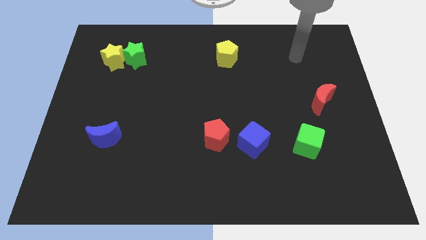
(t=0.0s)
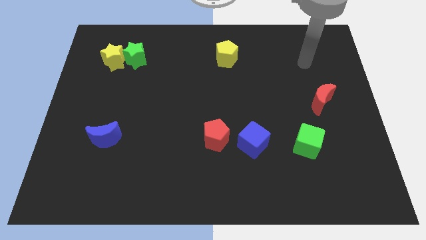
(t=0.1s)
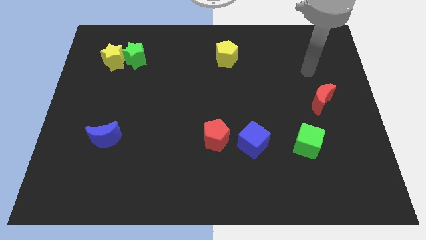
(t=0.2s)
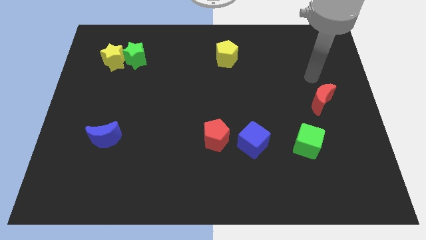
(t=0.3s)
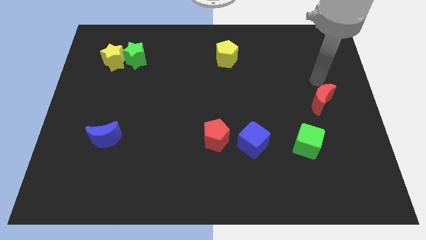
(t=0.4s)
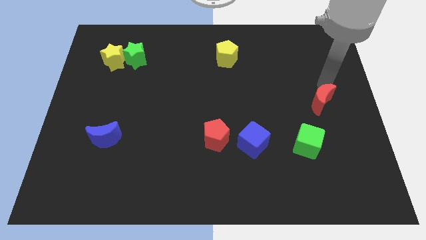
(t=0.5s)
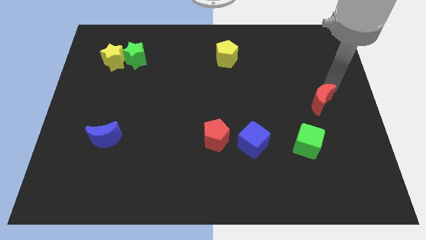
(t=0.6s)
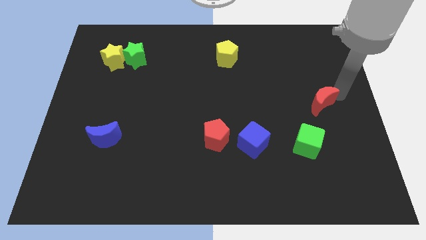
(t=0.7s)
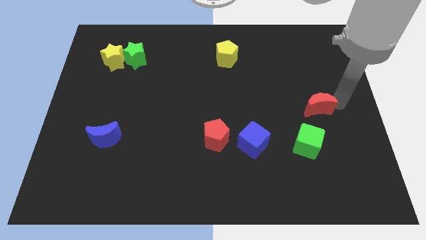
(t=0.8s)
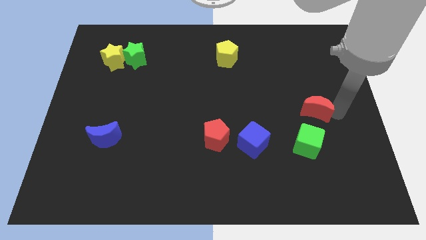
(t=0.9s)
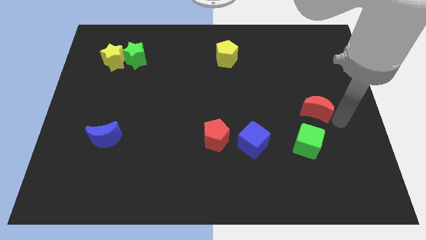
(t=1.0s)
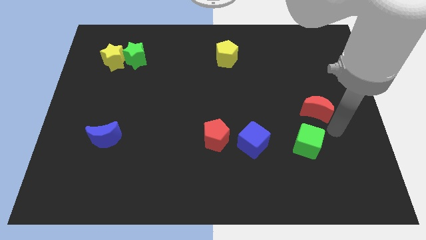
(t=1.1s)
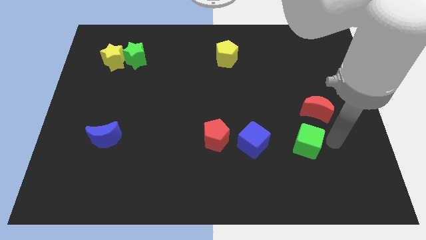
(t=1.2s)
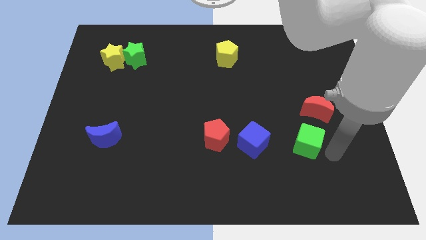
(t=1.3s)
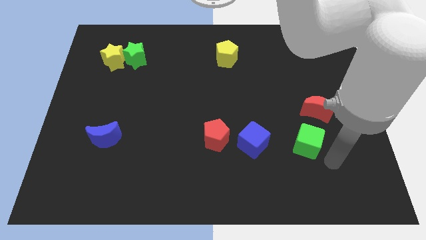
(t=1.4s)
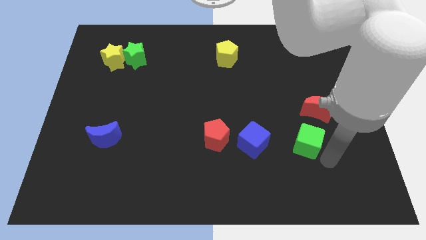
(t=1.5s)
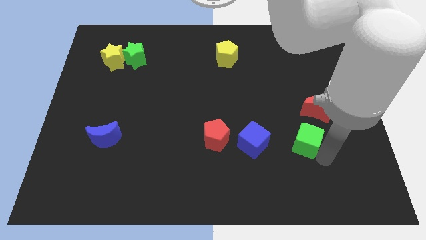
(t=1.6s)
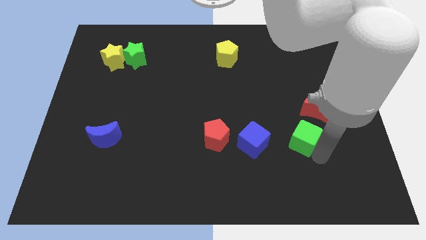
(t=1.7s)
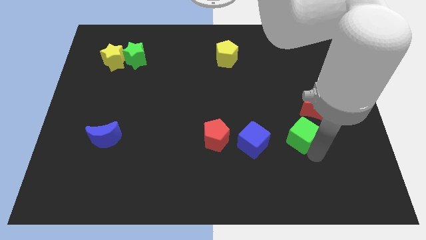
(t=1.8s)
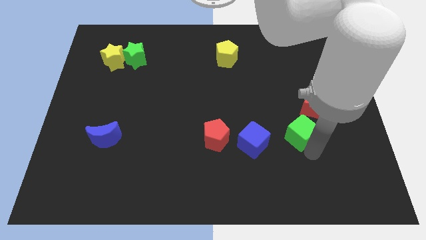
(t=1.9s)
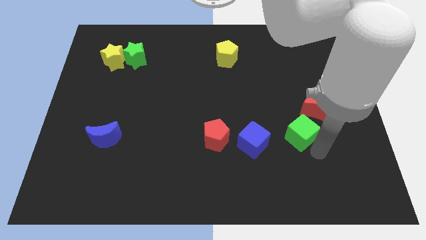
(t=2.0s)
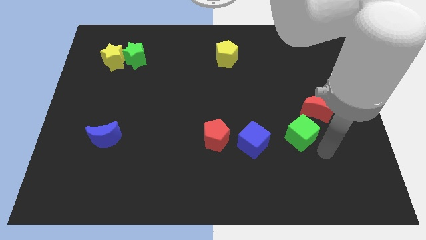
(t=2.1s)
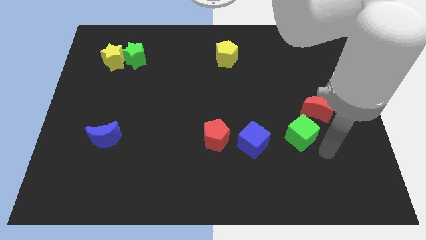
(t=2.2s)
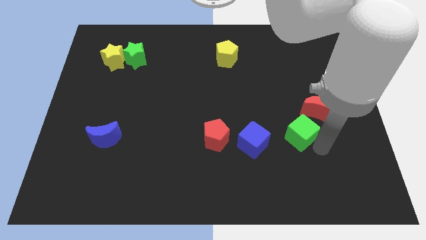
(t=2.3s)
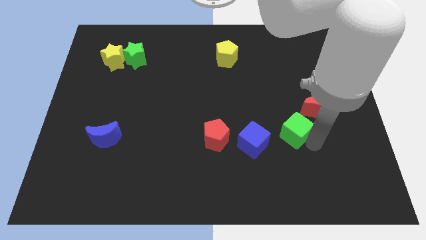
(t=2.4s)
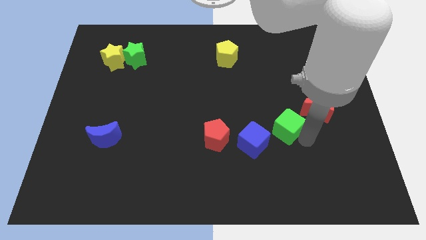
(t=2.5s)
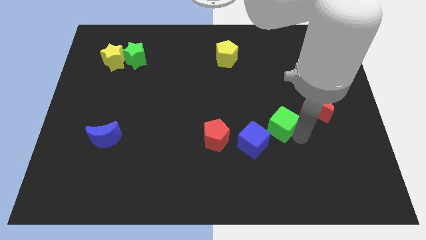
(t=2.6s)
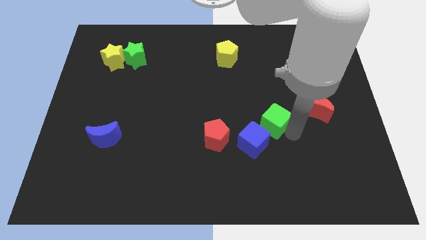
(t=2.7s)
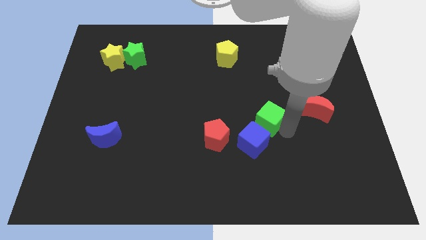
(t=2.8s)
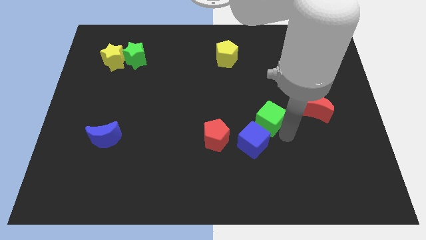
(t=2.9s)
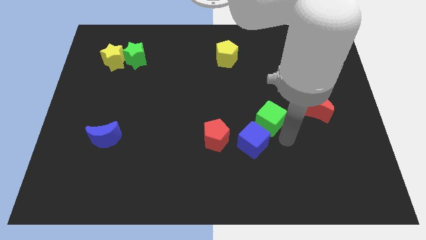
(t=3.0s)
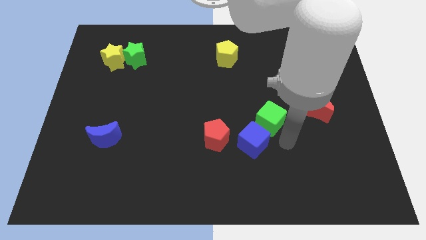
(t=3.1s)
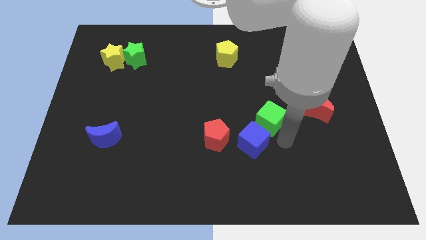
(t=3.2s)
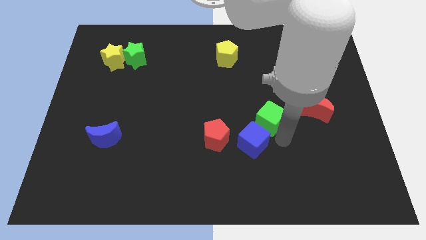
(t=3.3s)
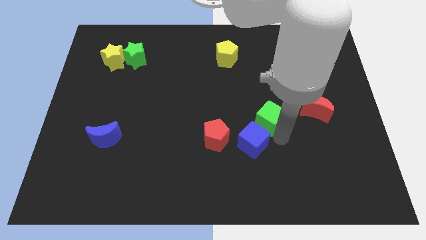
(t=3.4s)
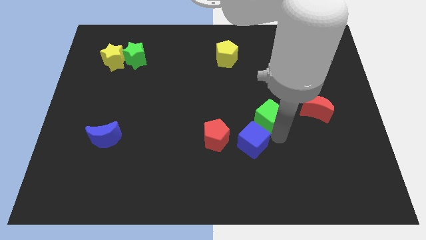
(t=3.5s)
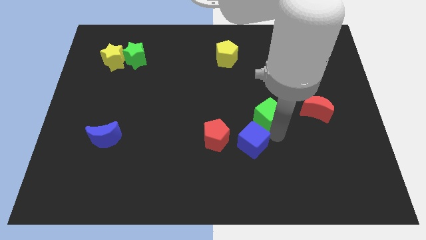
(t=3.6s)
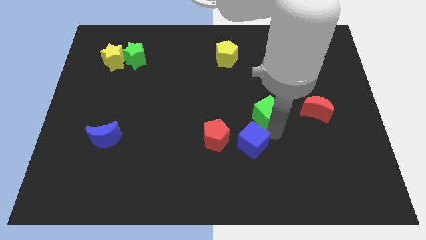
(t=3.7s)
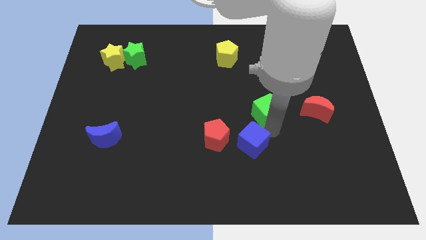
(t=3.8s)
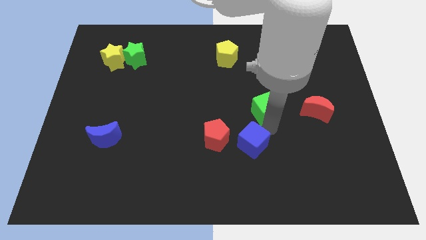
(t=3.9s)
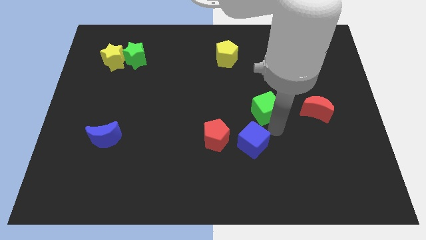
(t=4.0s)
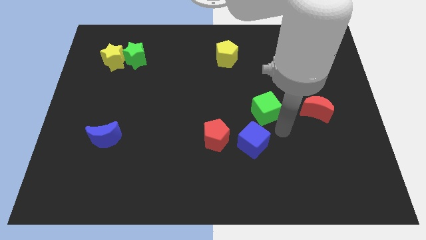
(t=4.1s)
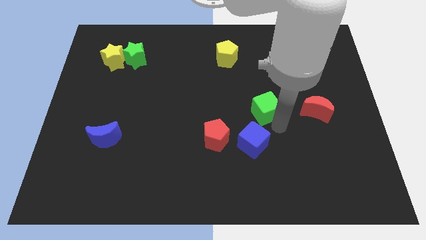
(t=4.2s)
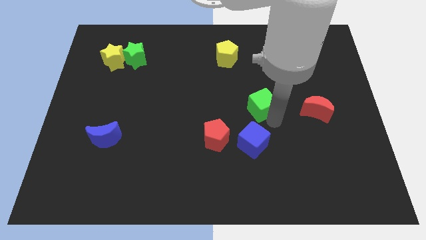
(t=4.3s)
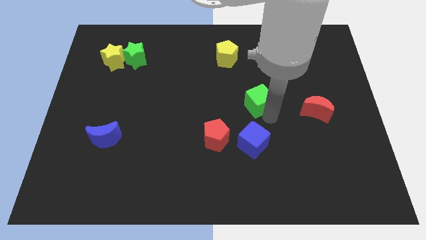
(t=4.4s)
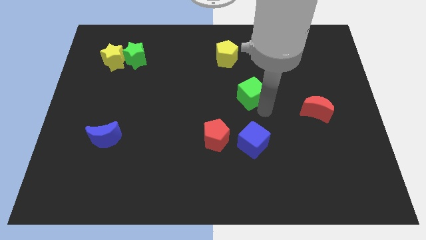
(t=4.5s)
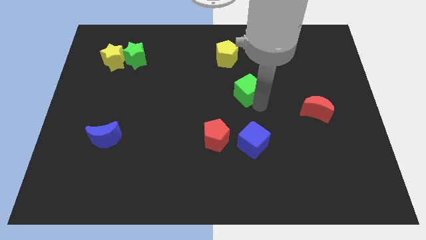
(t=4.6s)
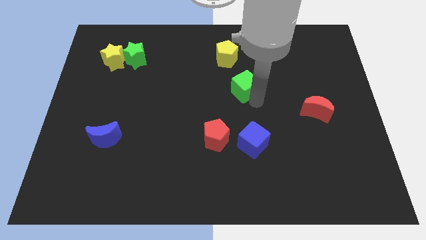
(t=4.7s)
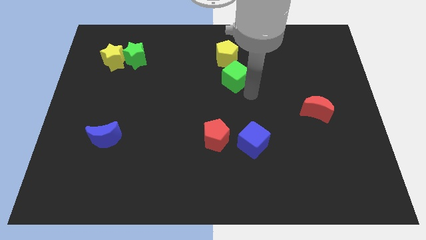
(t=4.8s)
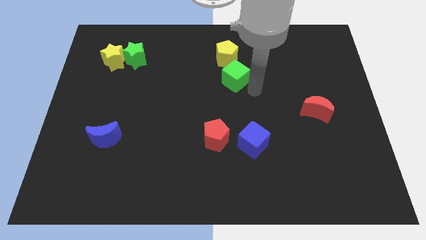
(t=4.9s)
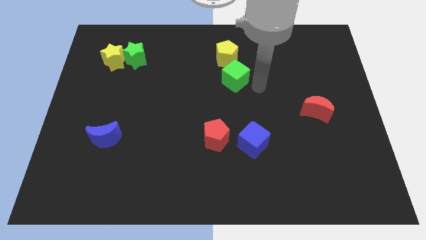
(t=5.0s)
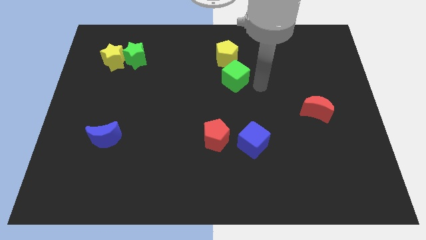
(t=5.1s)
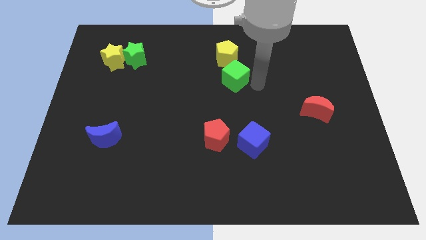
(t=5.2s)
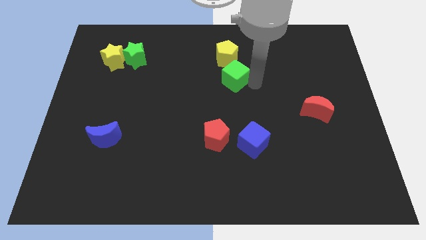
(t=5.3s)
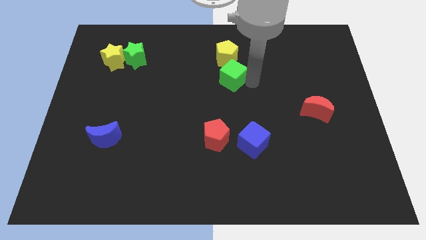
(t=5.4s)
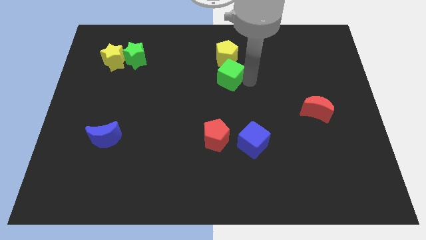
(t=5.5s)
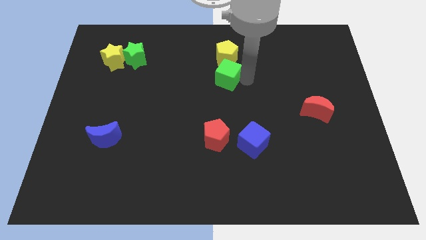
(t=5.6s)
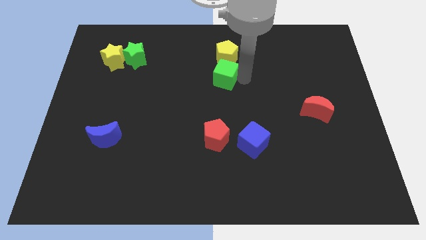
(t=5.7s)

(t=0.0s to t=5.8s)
push the green cube to the bottom left of the yellow pentagon

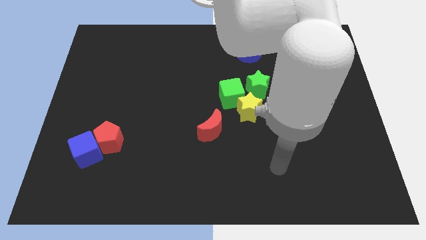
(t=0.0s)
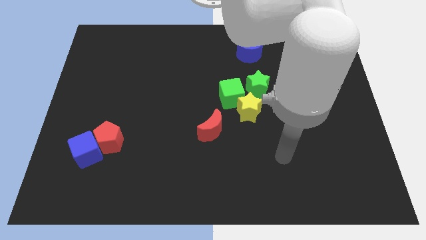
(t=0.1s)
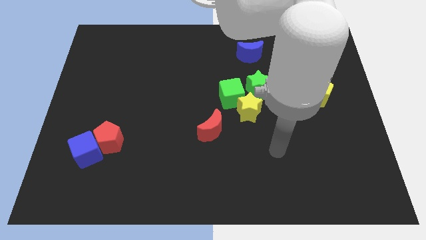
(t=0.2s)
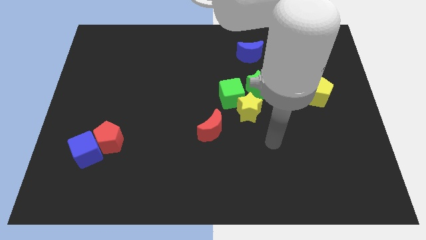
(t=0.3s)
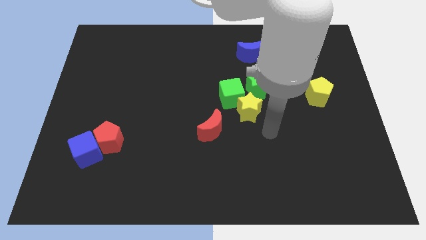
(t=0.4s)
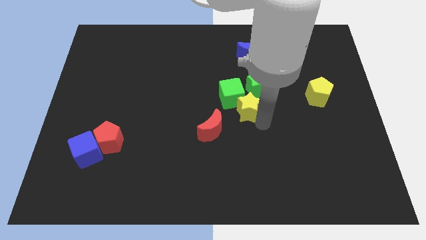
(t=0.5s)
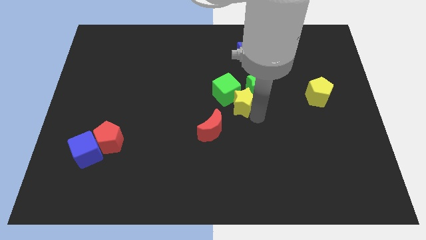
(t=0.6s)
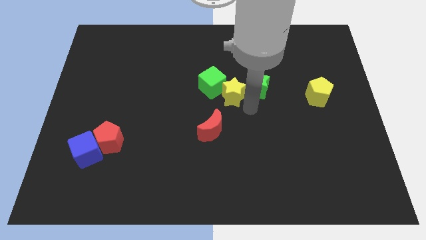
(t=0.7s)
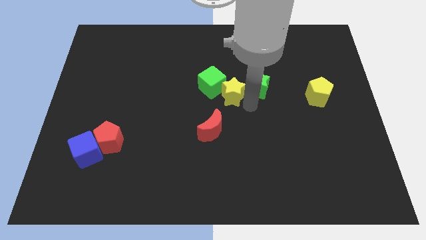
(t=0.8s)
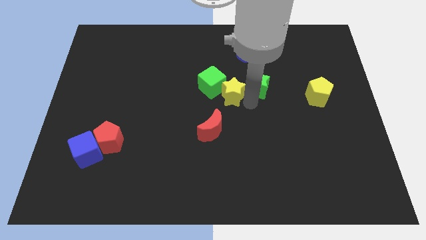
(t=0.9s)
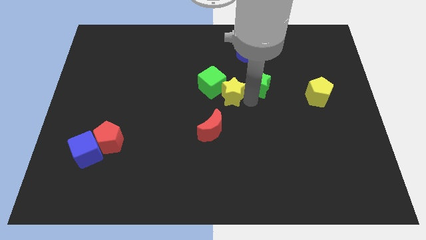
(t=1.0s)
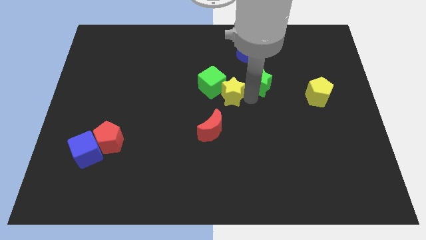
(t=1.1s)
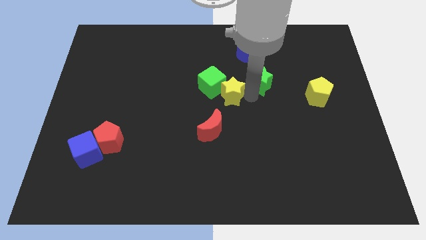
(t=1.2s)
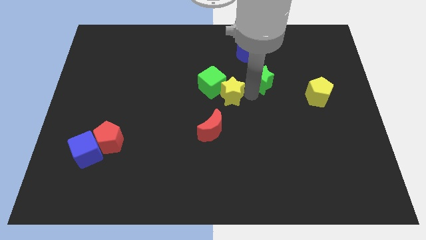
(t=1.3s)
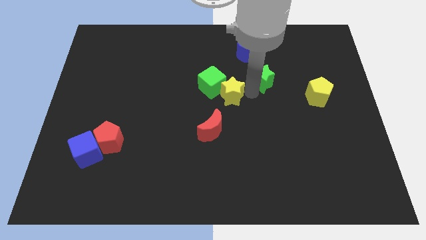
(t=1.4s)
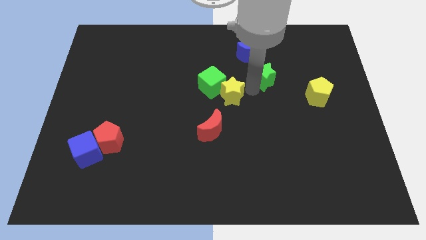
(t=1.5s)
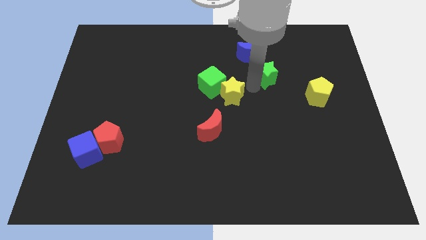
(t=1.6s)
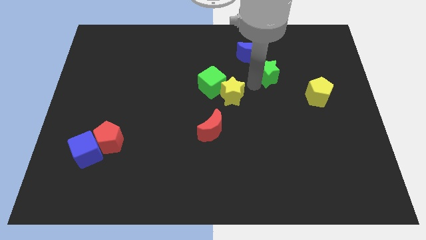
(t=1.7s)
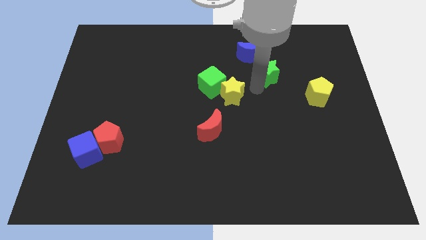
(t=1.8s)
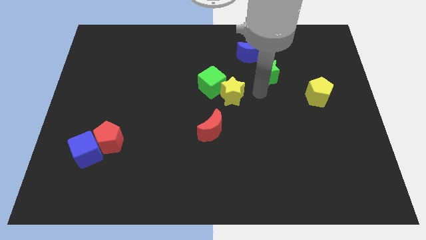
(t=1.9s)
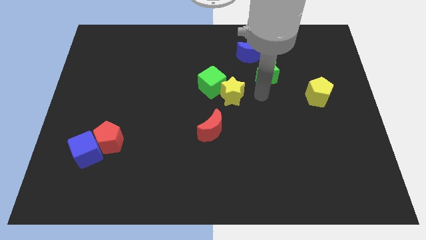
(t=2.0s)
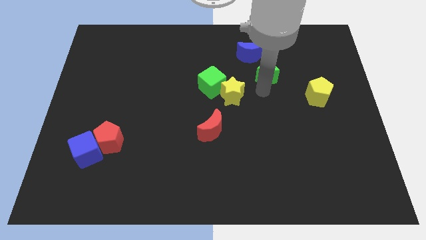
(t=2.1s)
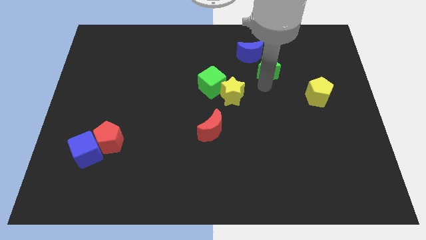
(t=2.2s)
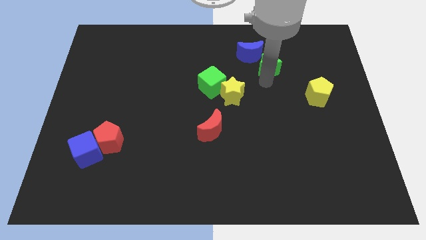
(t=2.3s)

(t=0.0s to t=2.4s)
put the green star right of the blue moon
